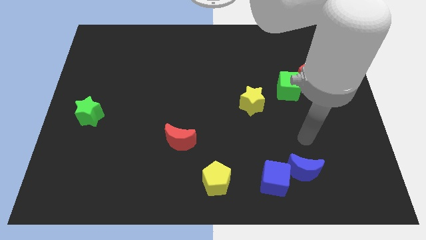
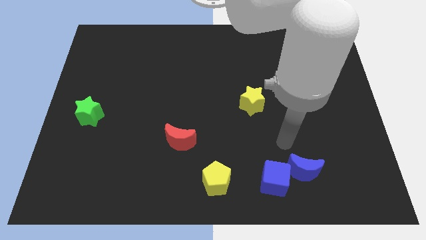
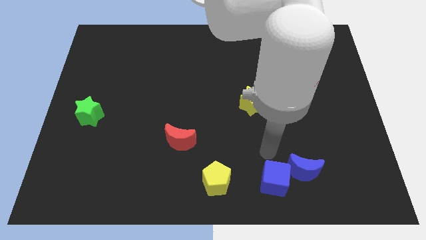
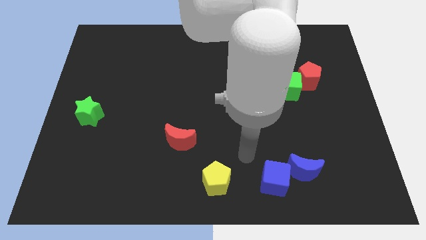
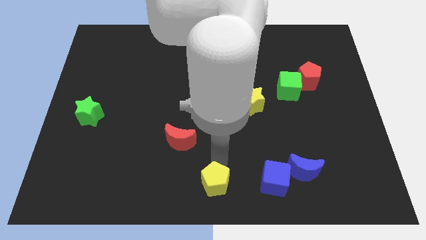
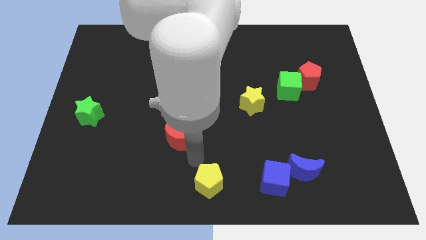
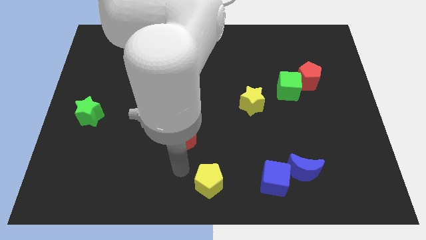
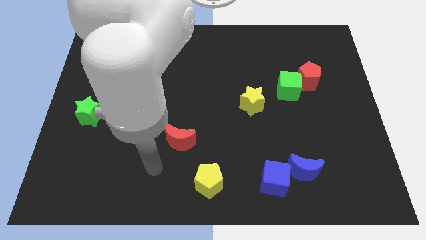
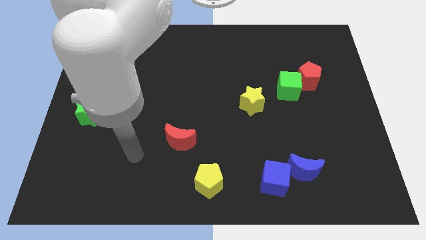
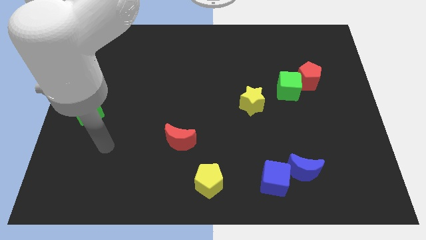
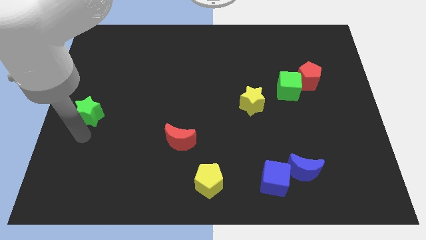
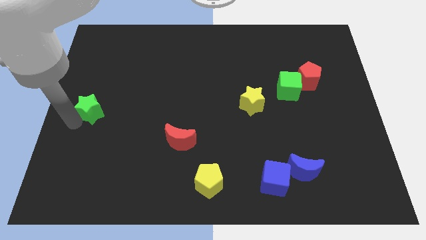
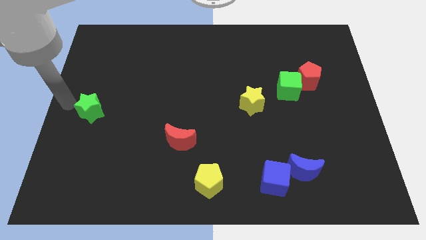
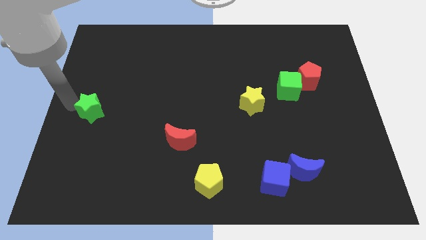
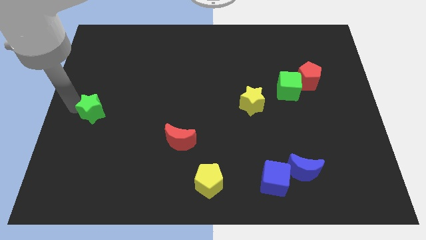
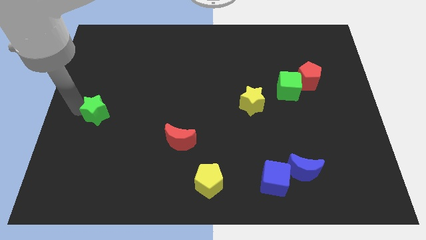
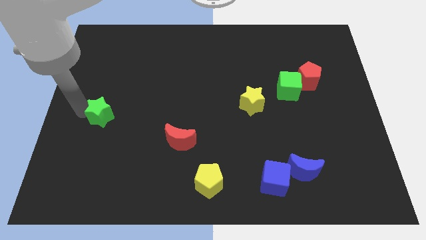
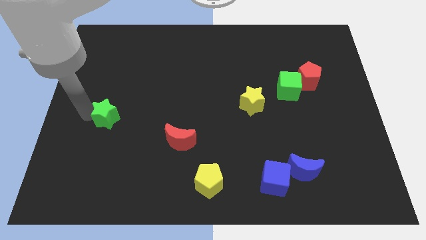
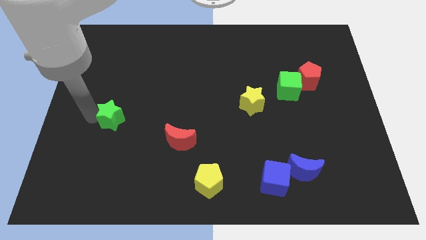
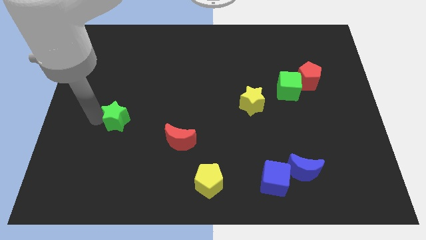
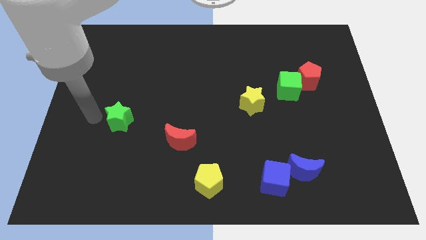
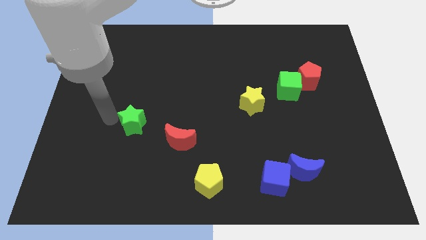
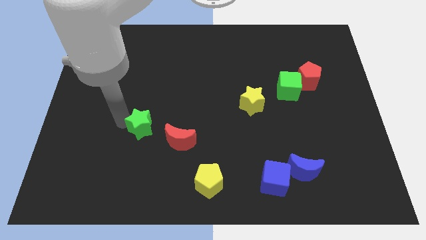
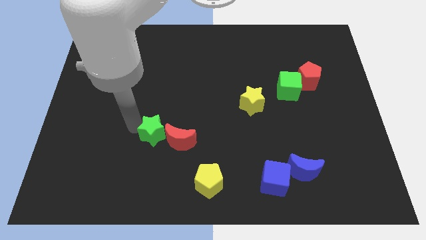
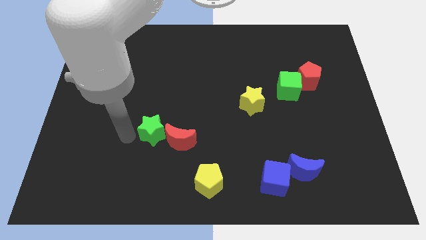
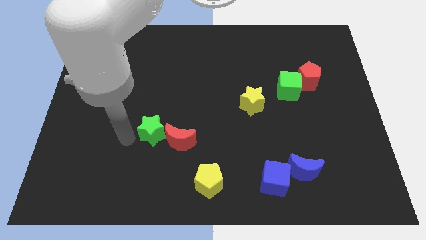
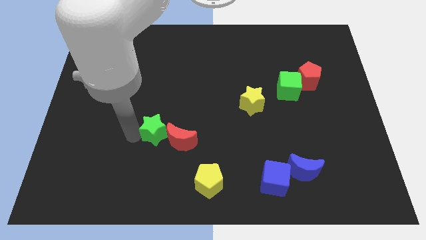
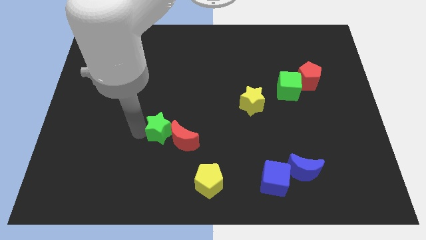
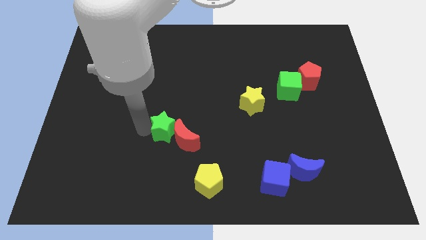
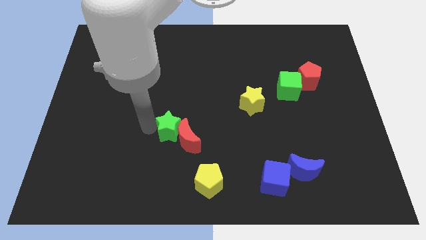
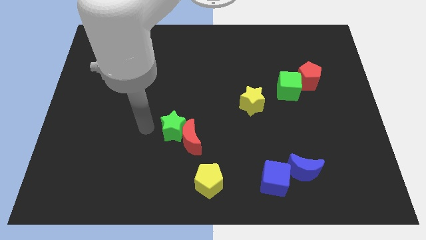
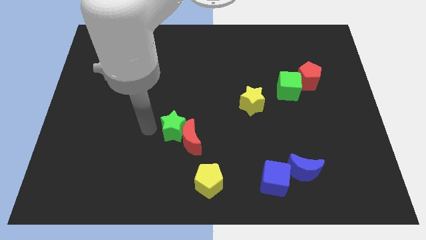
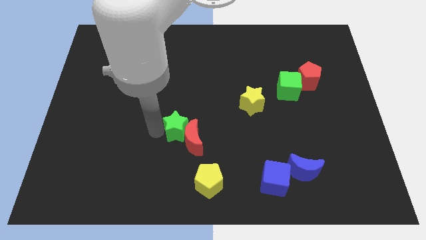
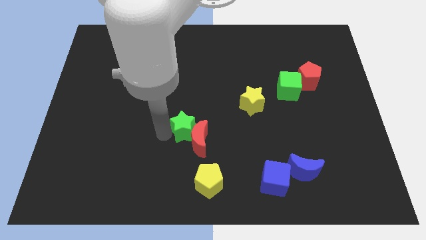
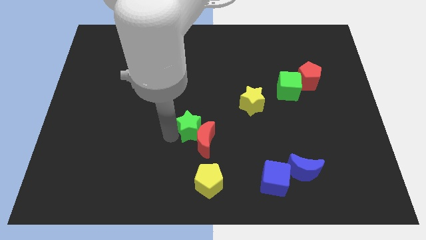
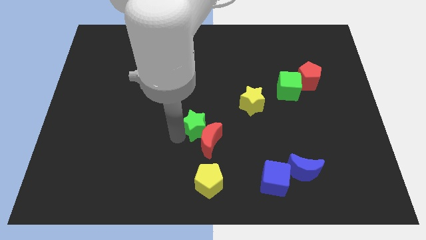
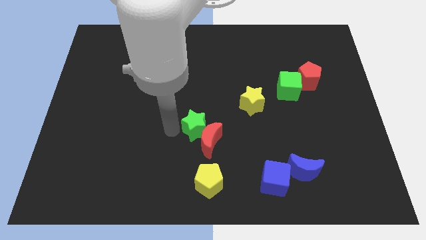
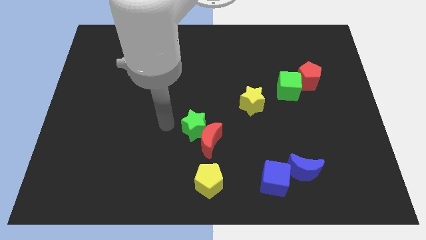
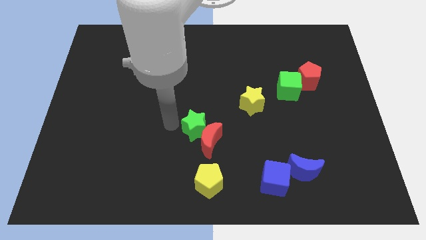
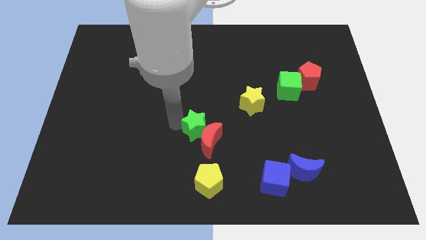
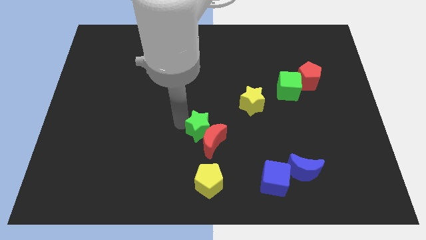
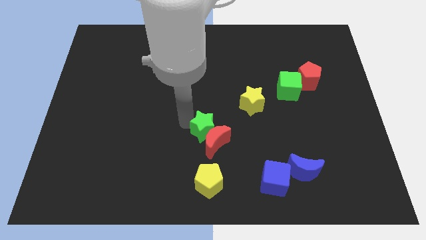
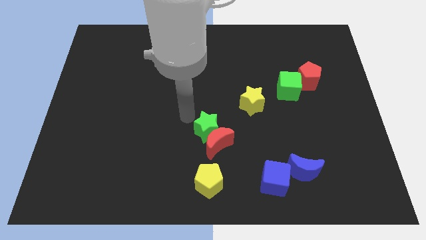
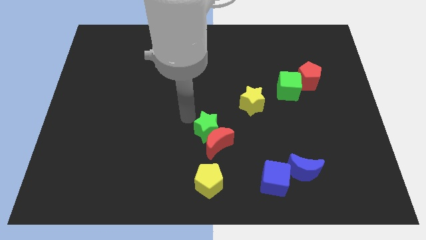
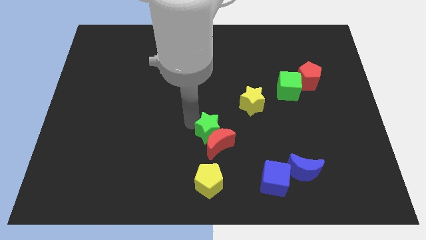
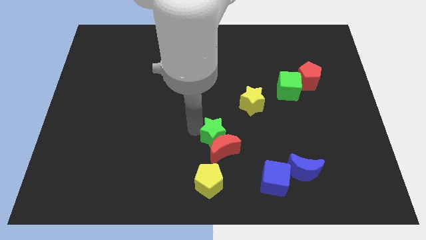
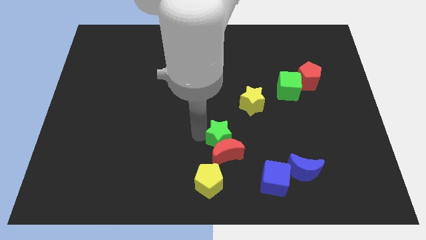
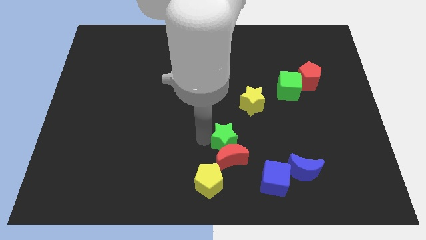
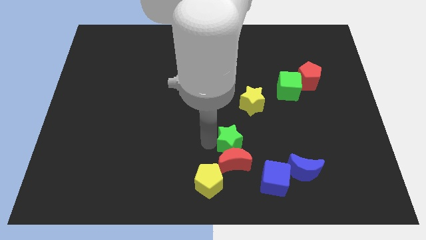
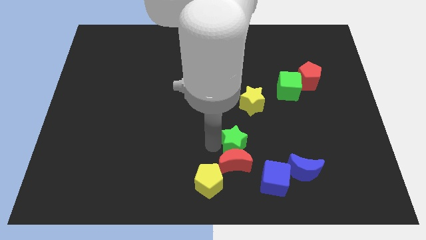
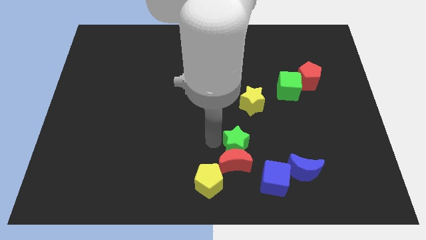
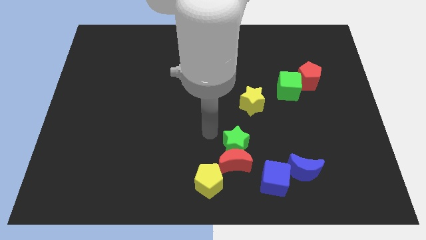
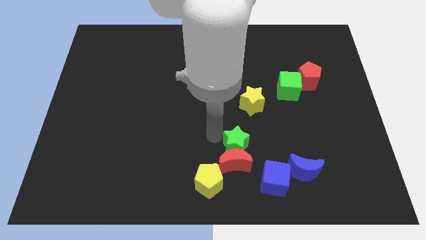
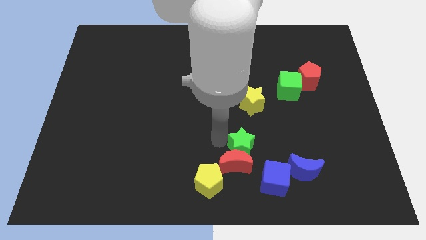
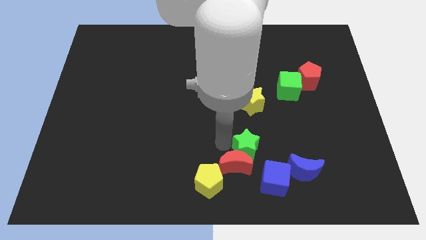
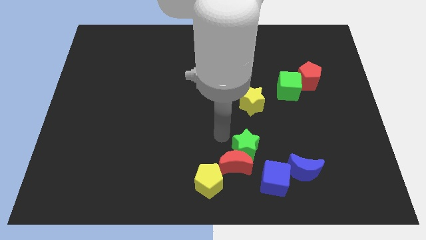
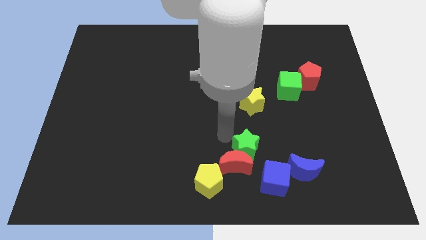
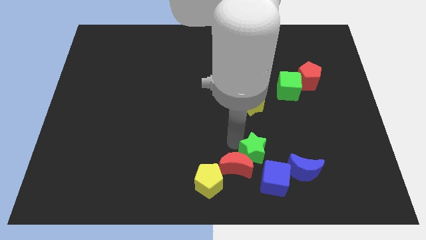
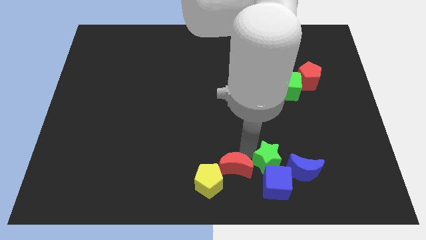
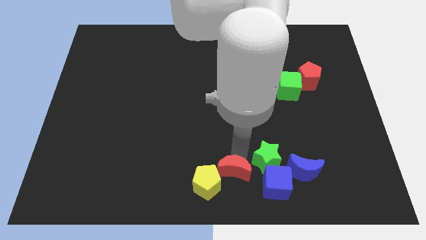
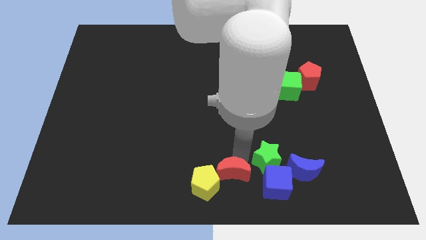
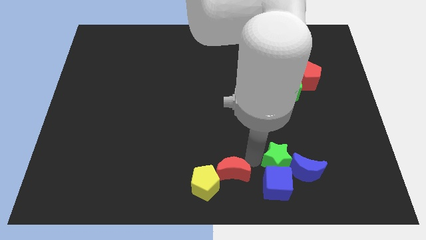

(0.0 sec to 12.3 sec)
push the green star next to the blue moon
